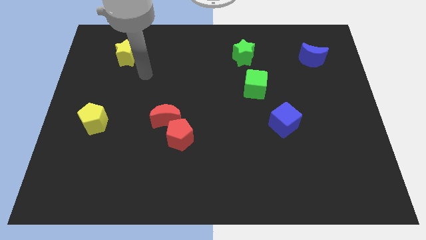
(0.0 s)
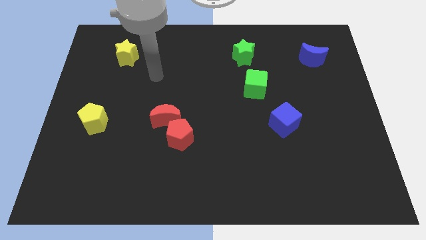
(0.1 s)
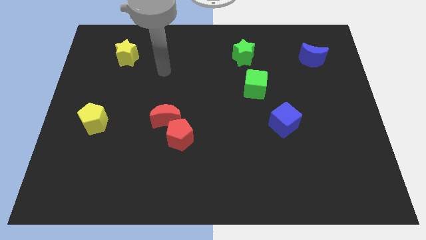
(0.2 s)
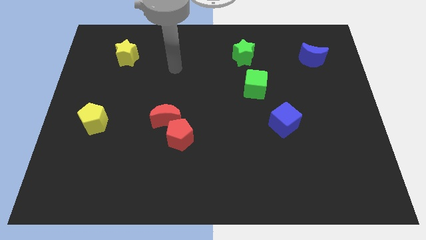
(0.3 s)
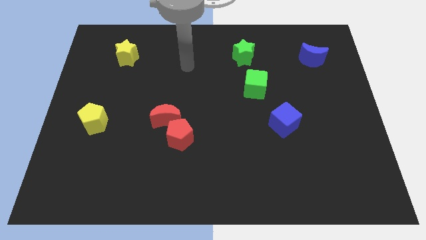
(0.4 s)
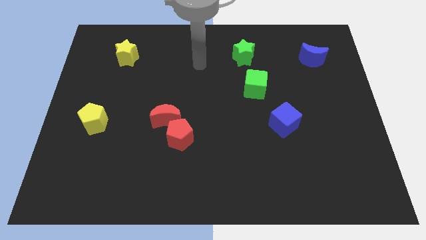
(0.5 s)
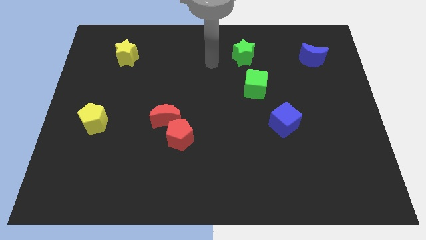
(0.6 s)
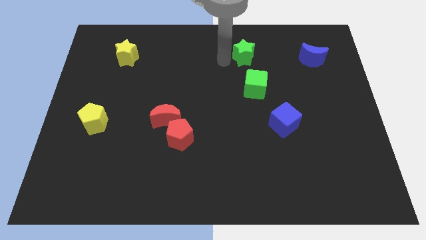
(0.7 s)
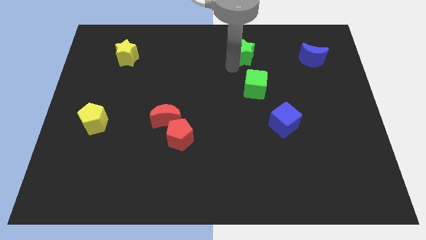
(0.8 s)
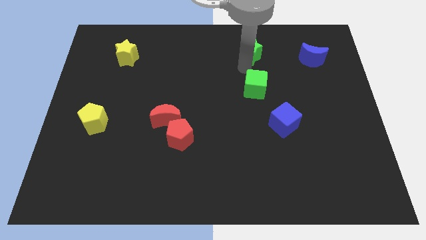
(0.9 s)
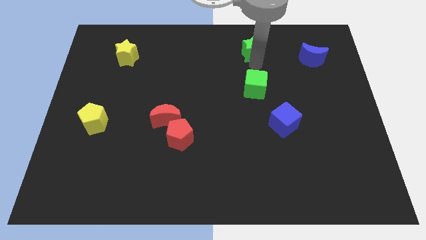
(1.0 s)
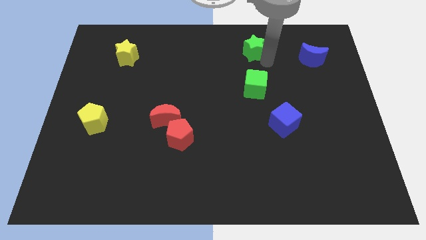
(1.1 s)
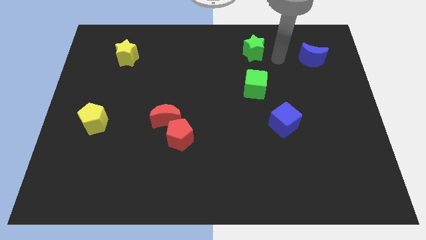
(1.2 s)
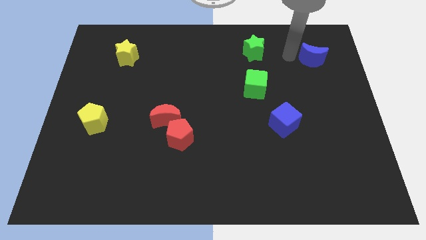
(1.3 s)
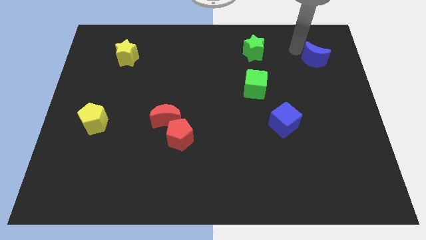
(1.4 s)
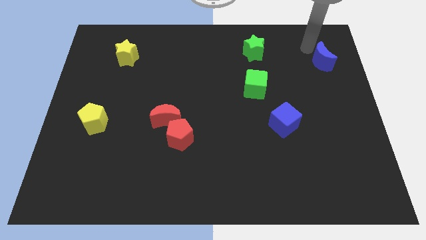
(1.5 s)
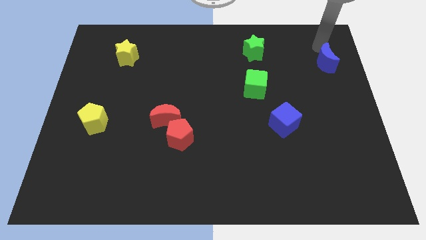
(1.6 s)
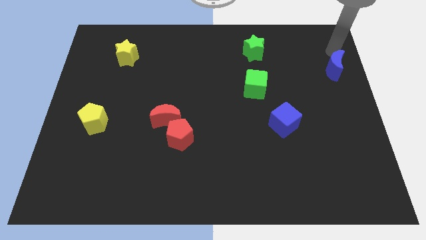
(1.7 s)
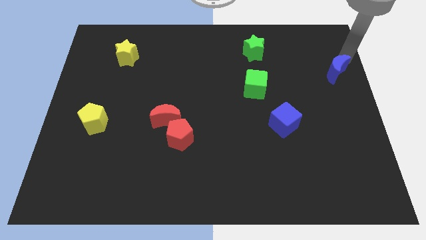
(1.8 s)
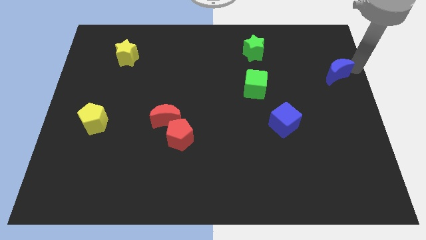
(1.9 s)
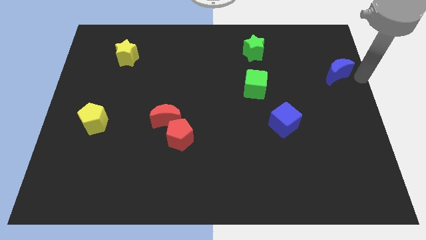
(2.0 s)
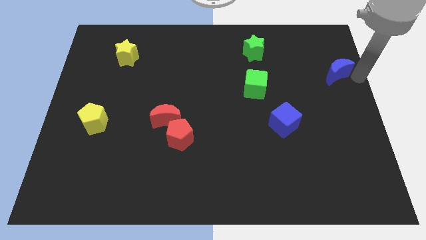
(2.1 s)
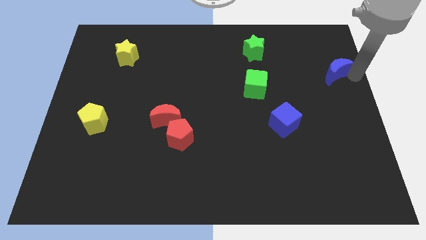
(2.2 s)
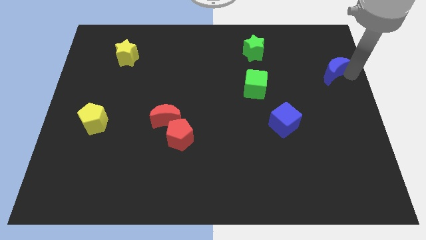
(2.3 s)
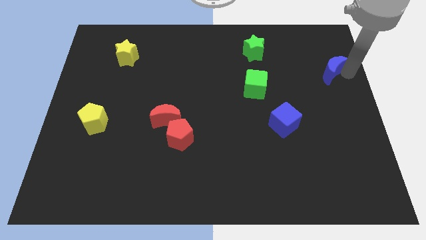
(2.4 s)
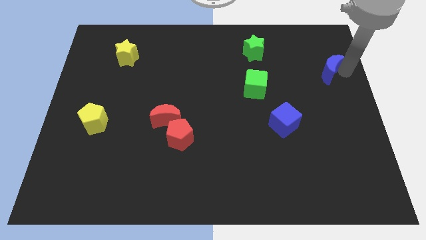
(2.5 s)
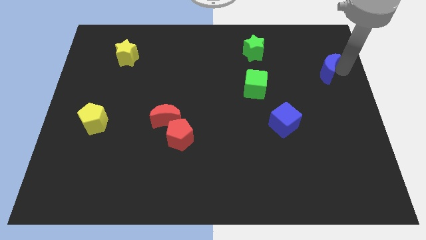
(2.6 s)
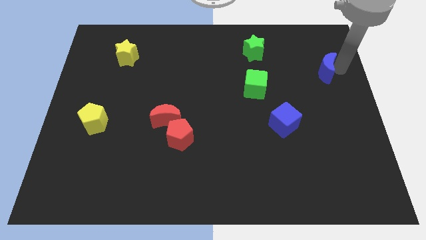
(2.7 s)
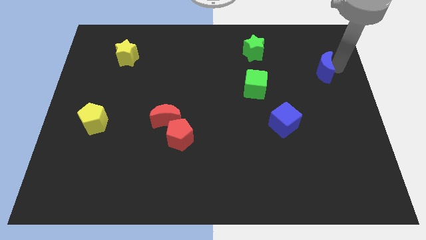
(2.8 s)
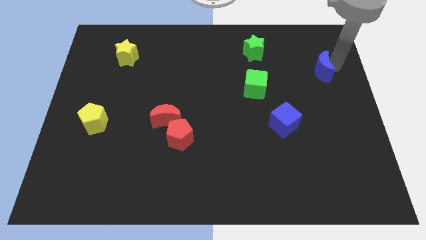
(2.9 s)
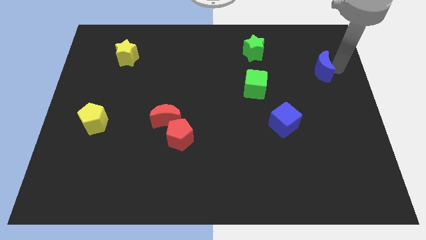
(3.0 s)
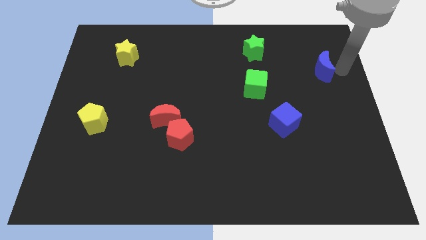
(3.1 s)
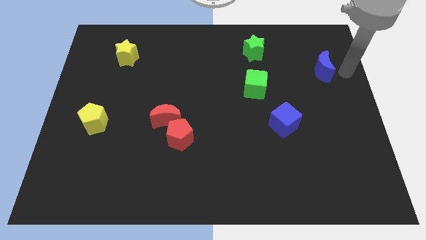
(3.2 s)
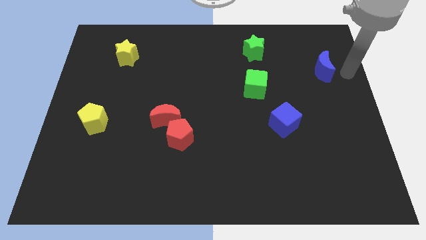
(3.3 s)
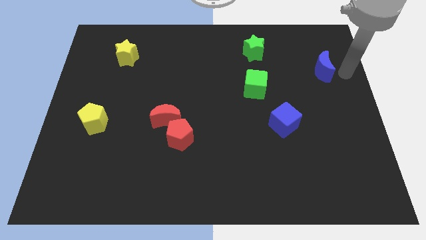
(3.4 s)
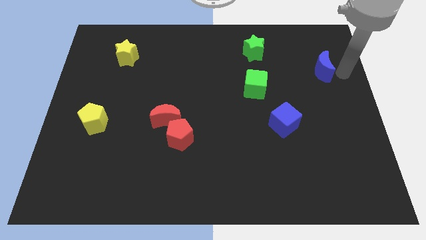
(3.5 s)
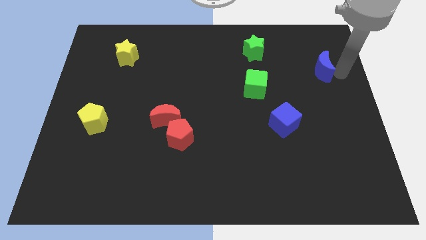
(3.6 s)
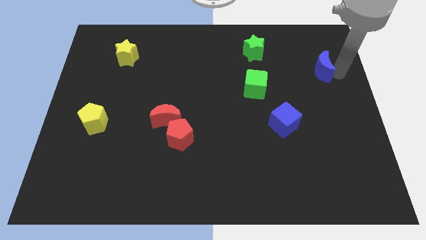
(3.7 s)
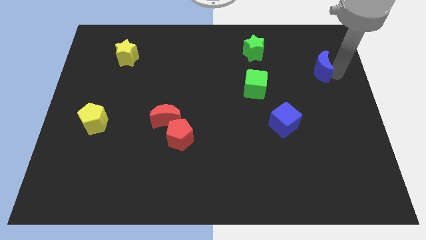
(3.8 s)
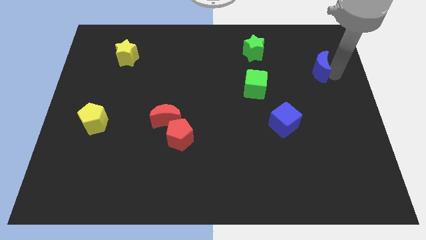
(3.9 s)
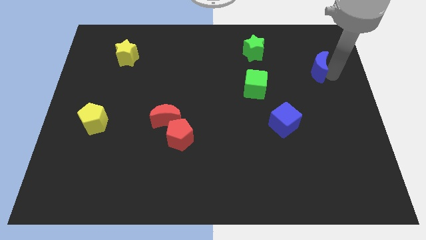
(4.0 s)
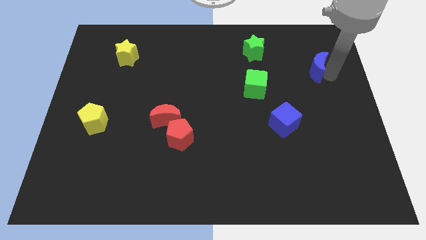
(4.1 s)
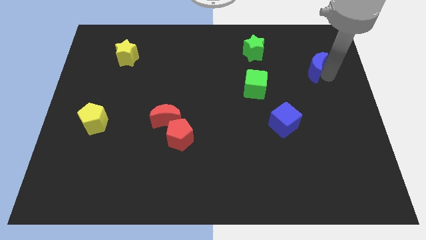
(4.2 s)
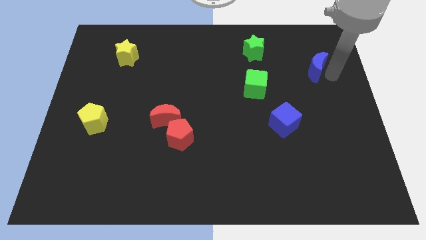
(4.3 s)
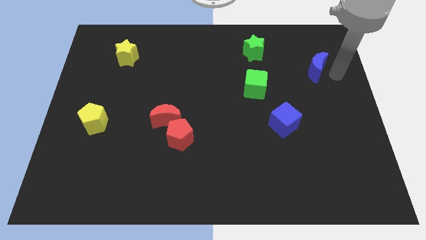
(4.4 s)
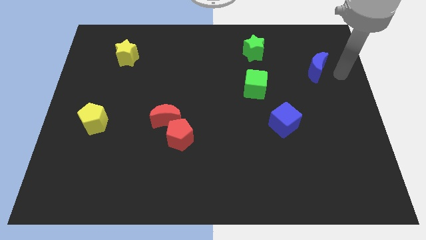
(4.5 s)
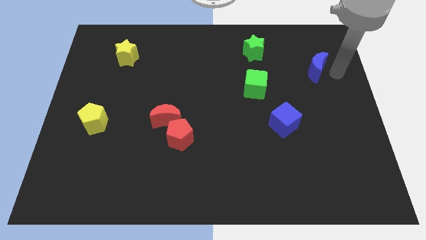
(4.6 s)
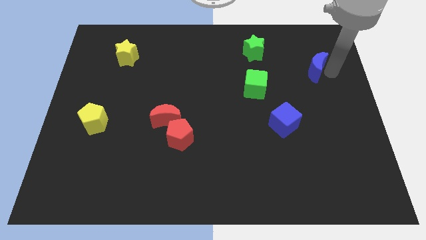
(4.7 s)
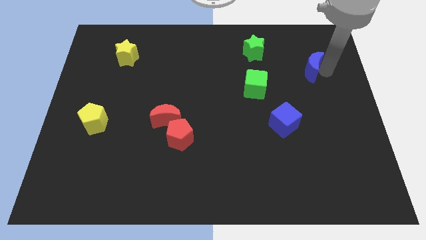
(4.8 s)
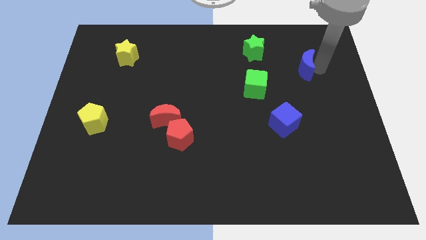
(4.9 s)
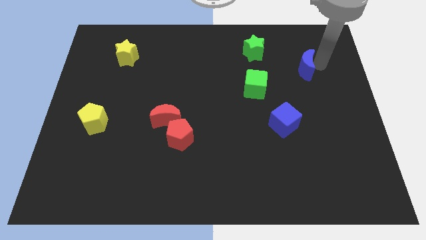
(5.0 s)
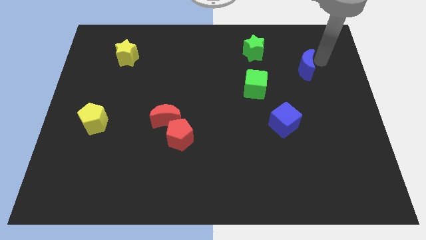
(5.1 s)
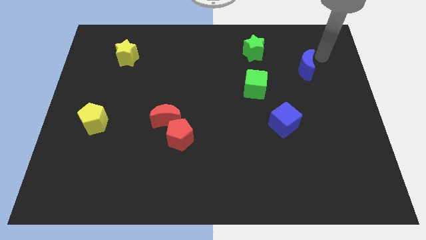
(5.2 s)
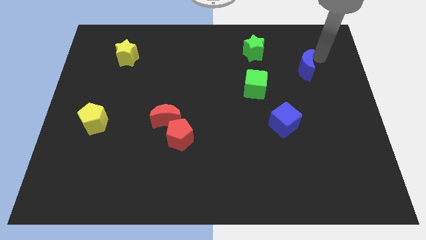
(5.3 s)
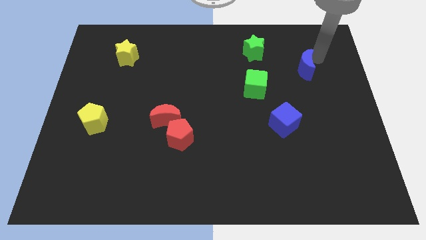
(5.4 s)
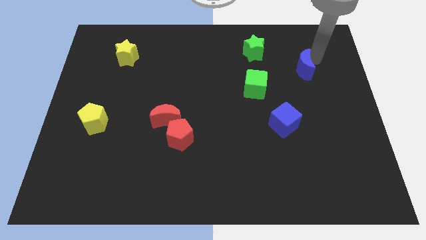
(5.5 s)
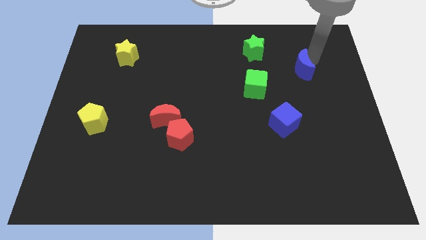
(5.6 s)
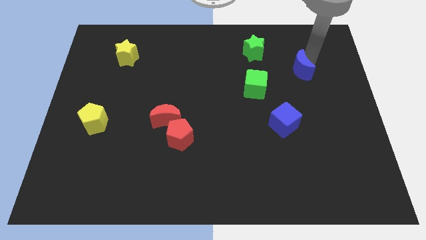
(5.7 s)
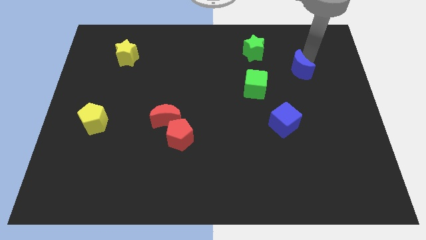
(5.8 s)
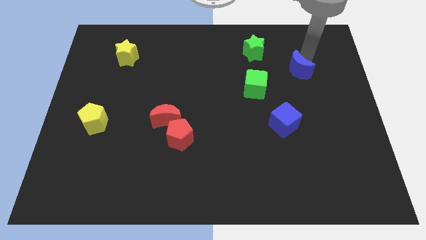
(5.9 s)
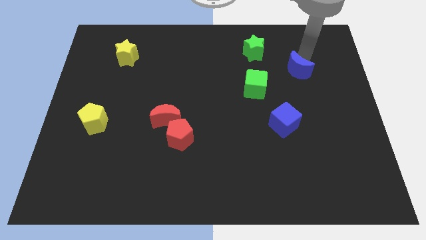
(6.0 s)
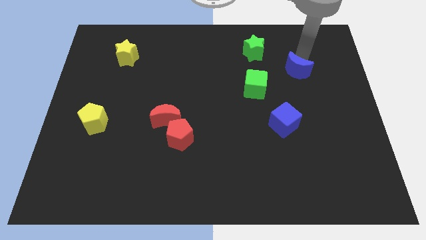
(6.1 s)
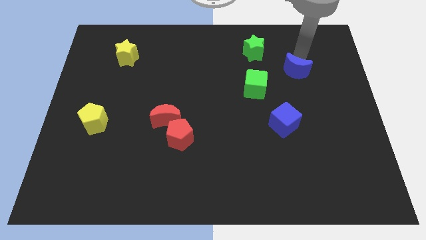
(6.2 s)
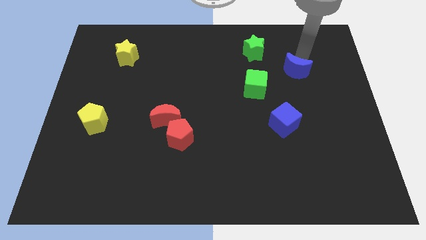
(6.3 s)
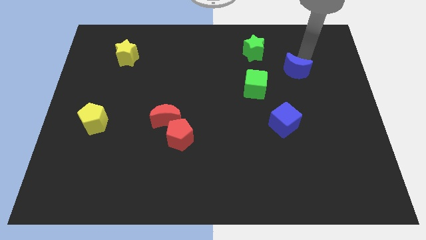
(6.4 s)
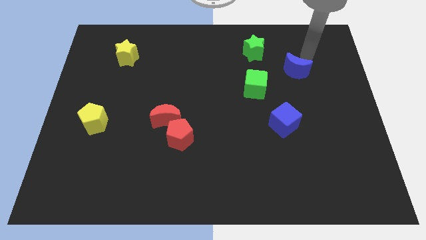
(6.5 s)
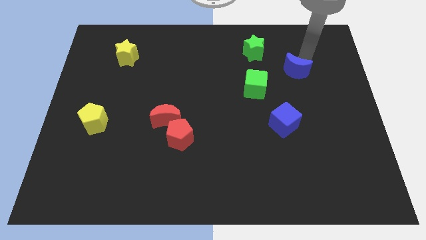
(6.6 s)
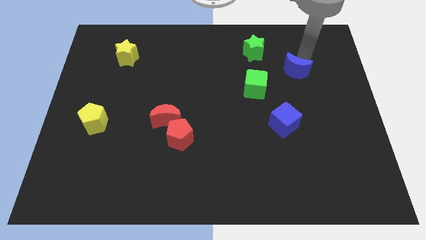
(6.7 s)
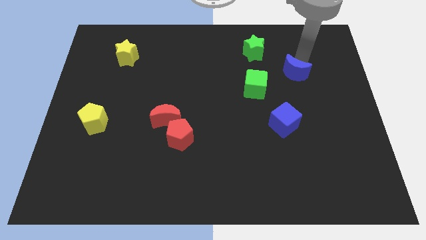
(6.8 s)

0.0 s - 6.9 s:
move the blue moon down and left somewhat

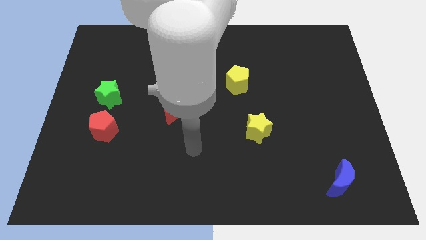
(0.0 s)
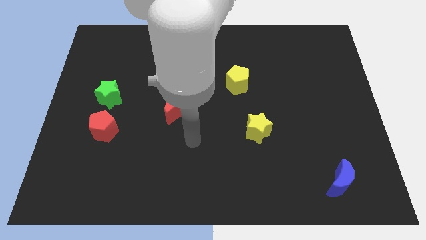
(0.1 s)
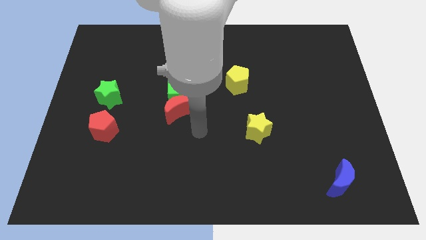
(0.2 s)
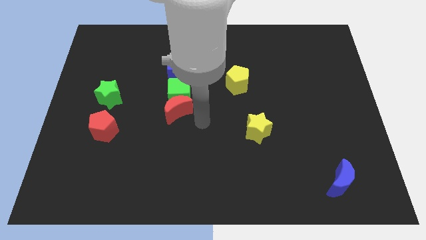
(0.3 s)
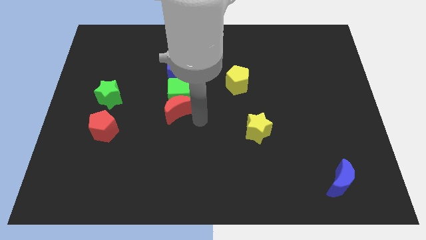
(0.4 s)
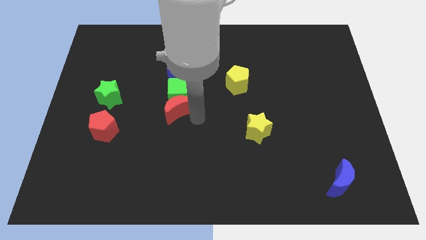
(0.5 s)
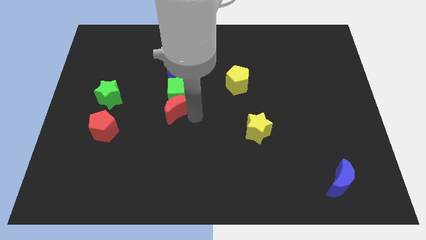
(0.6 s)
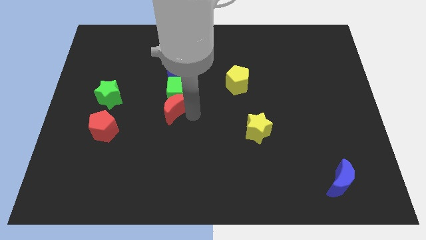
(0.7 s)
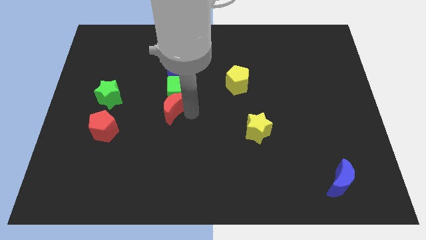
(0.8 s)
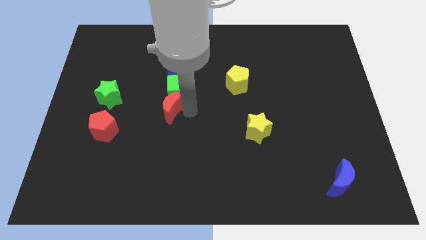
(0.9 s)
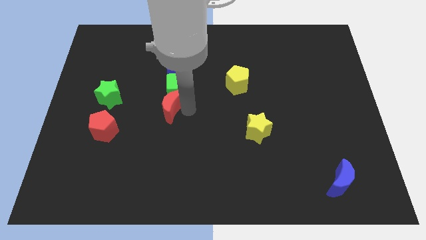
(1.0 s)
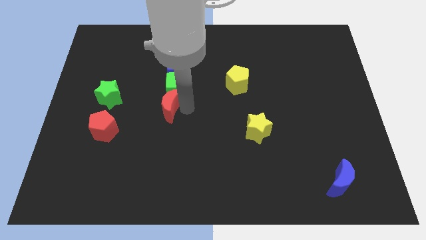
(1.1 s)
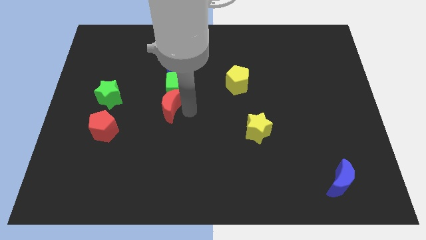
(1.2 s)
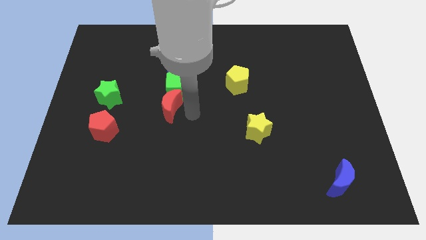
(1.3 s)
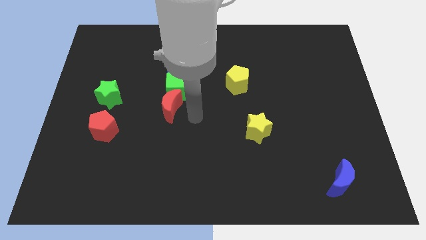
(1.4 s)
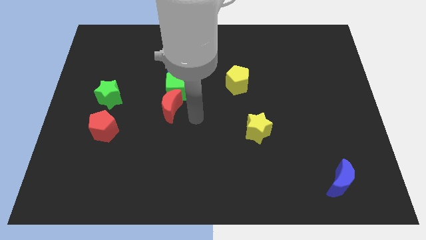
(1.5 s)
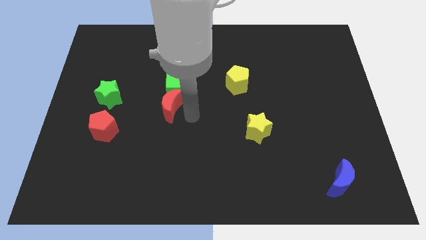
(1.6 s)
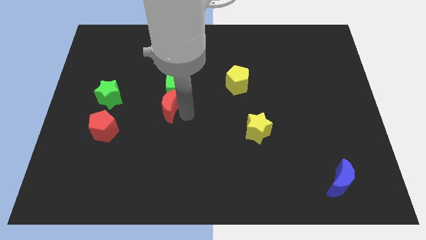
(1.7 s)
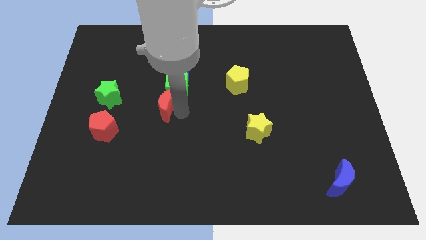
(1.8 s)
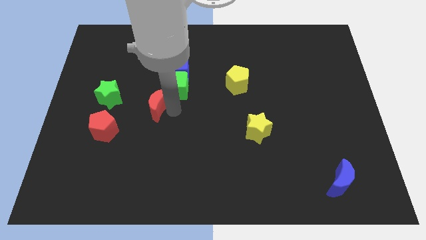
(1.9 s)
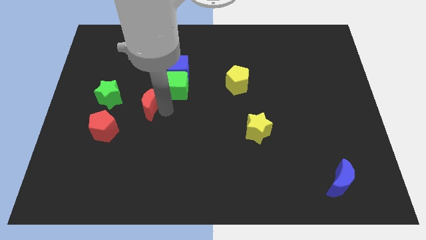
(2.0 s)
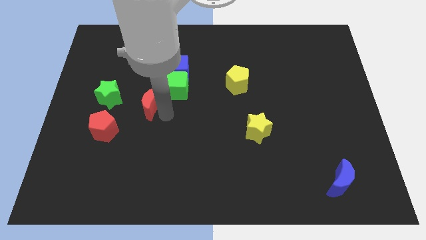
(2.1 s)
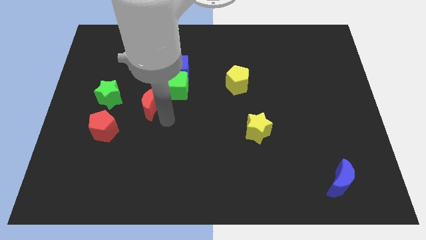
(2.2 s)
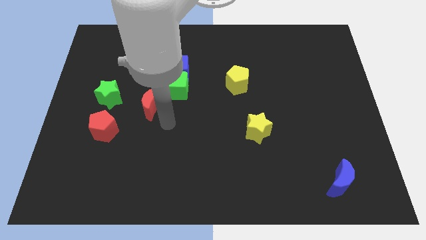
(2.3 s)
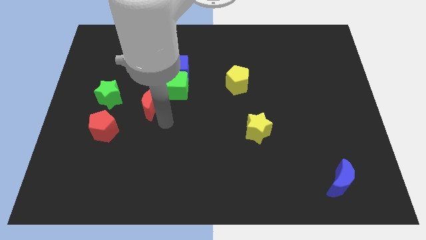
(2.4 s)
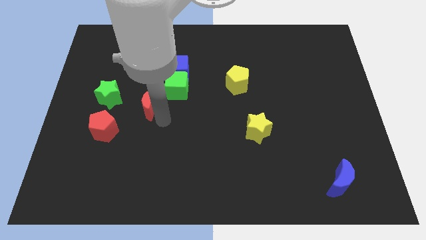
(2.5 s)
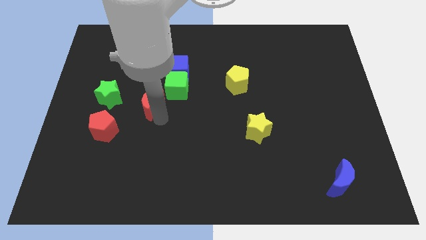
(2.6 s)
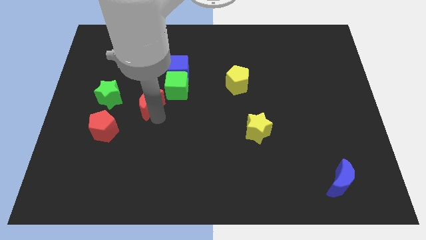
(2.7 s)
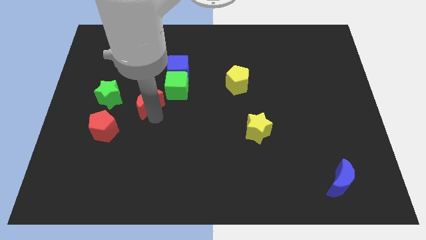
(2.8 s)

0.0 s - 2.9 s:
push the red moon to the left somewhat
